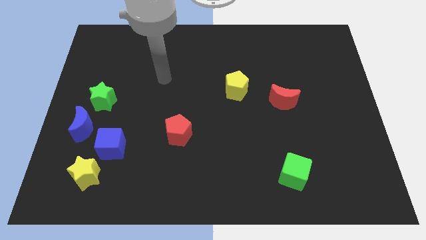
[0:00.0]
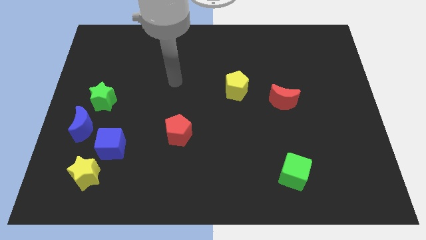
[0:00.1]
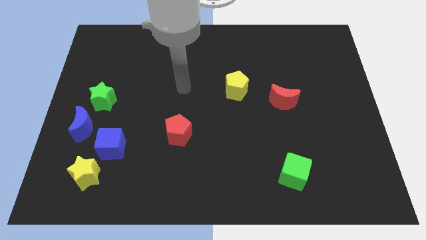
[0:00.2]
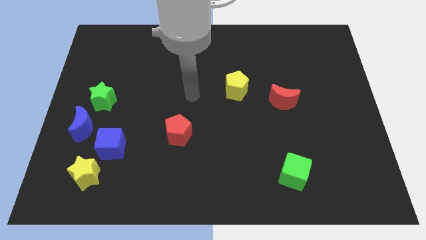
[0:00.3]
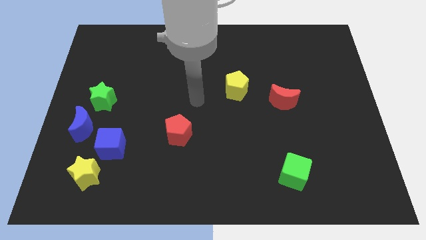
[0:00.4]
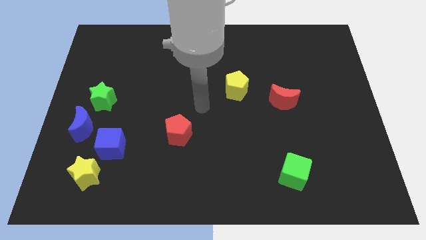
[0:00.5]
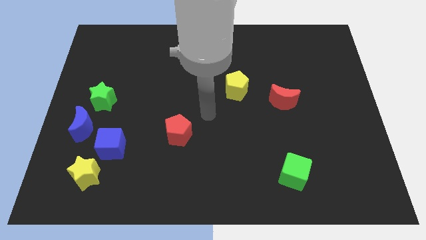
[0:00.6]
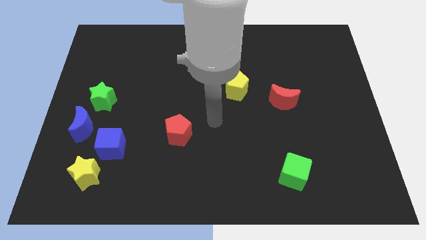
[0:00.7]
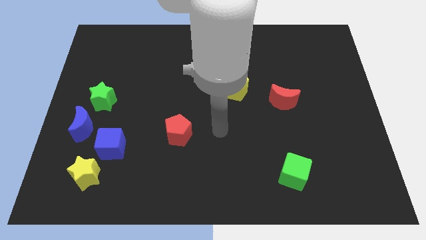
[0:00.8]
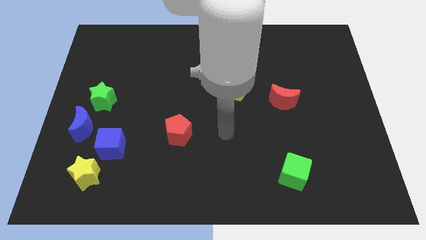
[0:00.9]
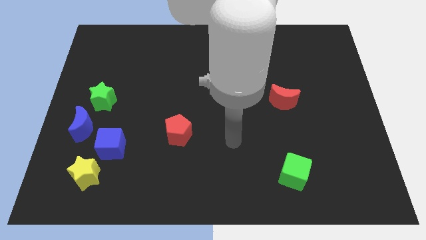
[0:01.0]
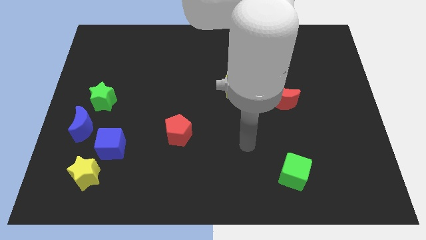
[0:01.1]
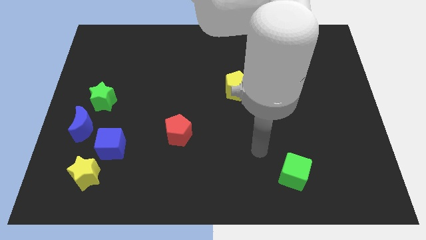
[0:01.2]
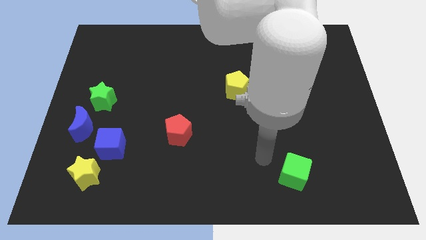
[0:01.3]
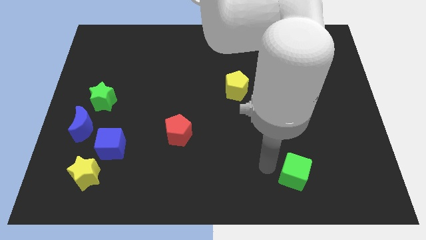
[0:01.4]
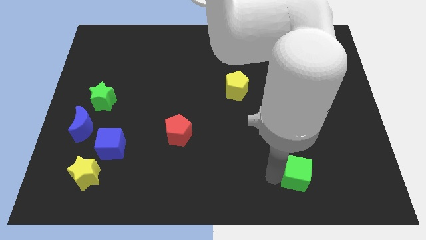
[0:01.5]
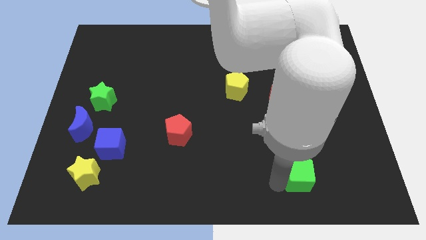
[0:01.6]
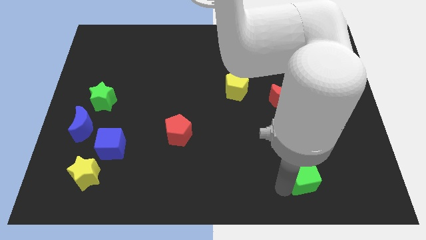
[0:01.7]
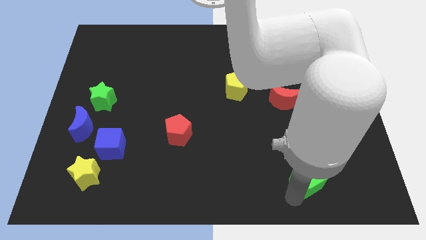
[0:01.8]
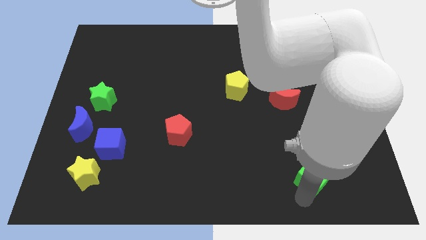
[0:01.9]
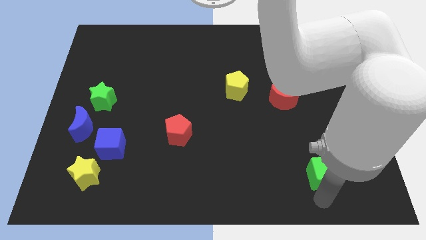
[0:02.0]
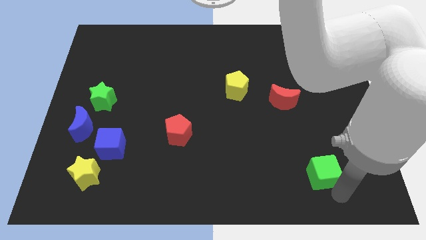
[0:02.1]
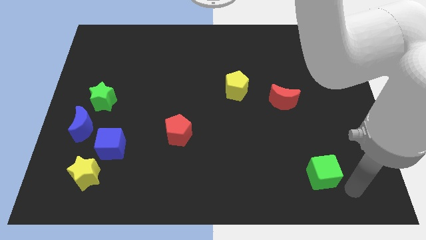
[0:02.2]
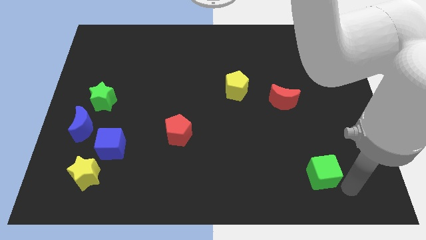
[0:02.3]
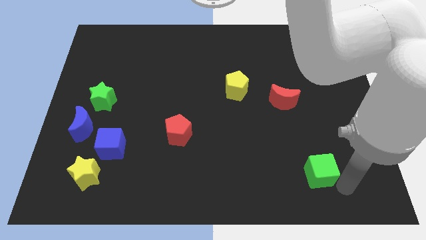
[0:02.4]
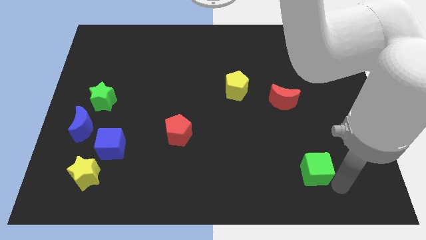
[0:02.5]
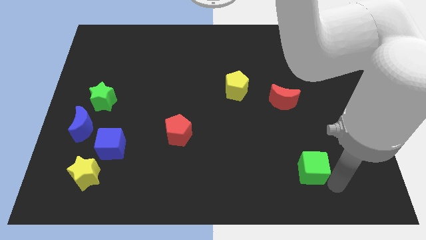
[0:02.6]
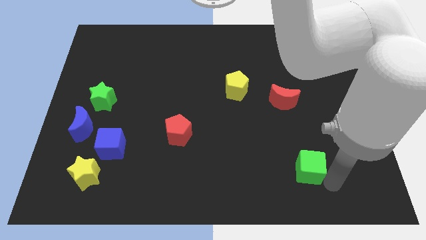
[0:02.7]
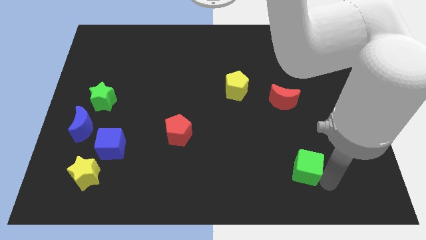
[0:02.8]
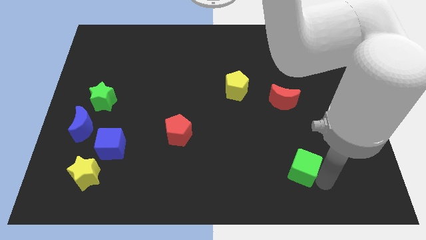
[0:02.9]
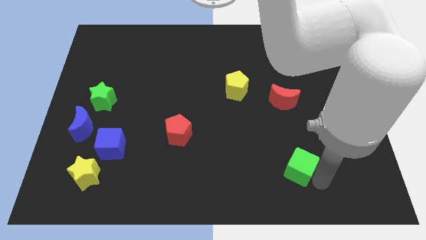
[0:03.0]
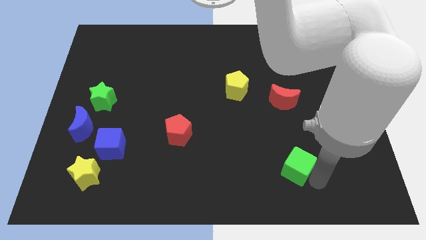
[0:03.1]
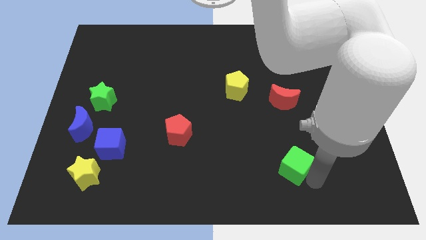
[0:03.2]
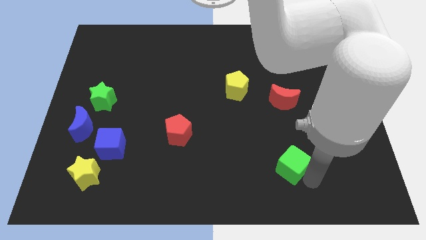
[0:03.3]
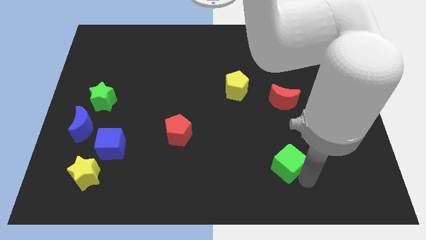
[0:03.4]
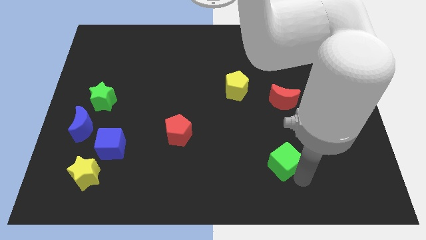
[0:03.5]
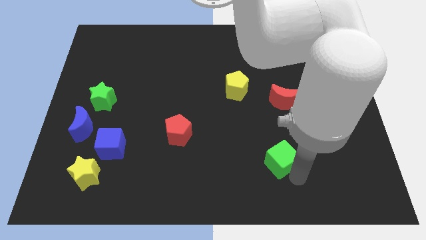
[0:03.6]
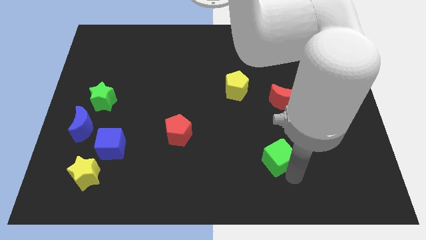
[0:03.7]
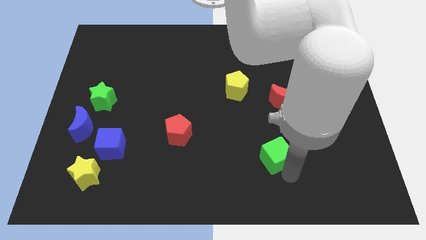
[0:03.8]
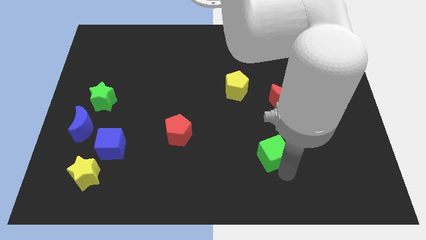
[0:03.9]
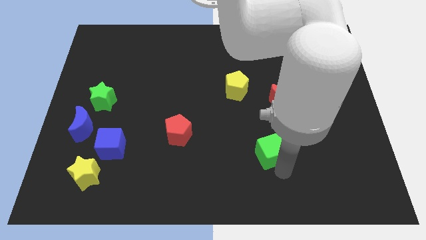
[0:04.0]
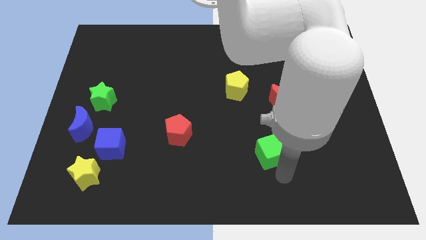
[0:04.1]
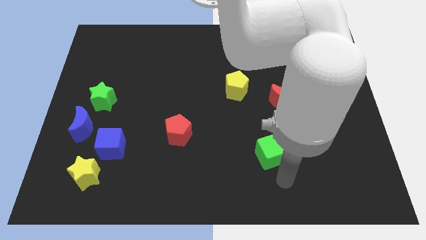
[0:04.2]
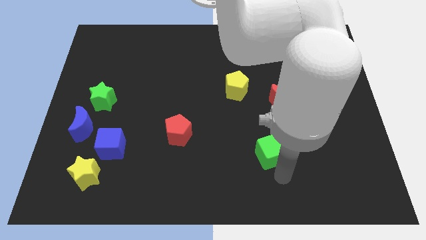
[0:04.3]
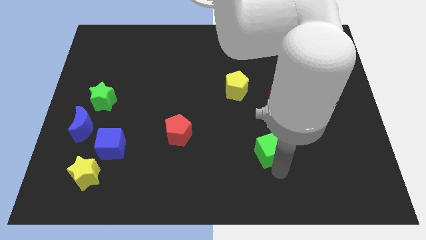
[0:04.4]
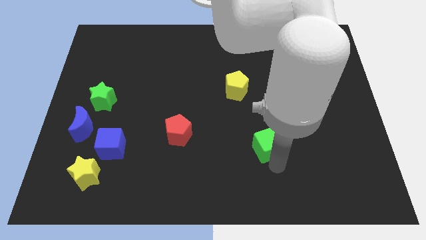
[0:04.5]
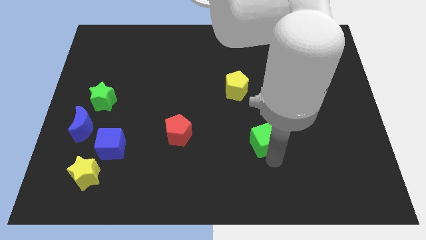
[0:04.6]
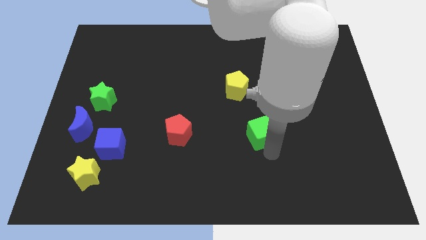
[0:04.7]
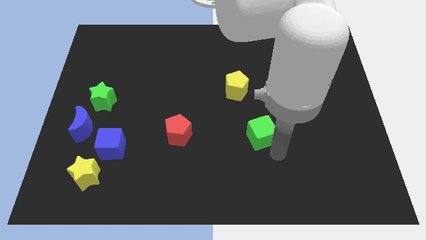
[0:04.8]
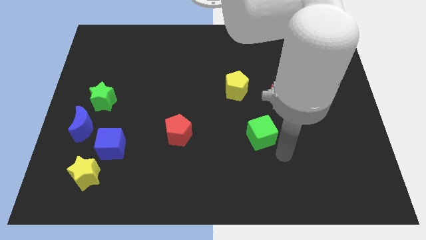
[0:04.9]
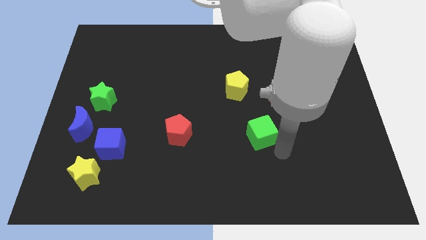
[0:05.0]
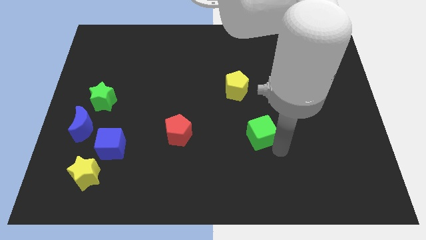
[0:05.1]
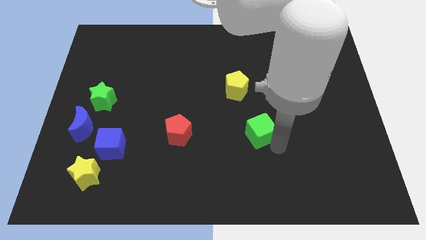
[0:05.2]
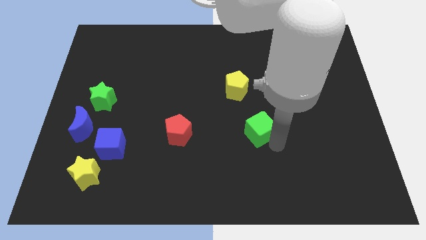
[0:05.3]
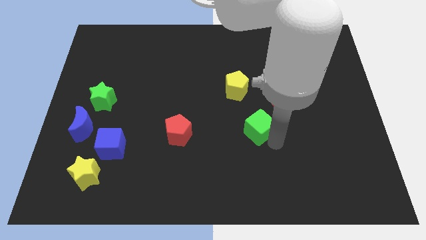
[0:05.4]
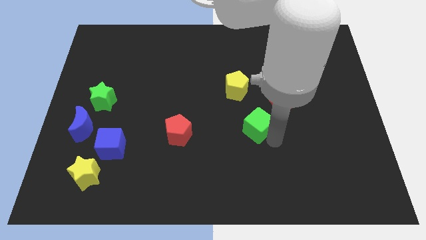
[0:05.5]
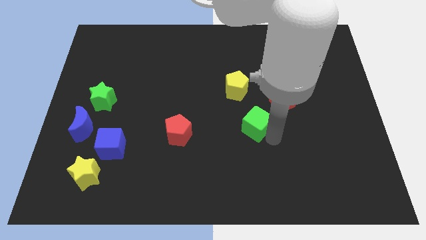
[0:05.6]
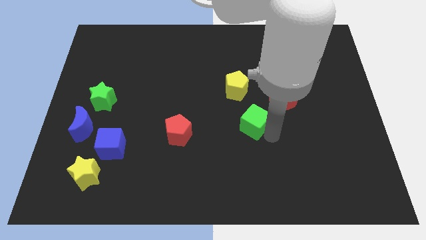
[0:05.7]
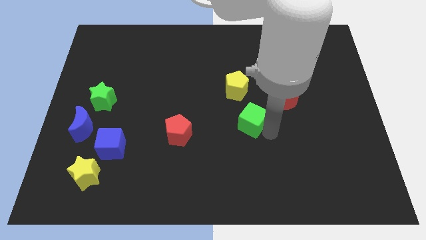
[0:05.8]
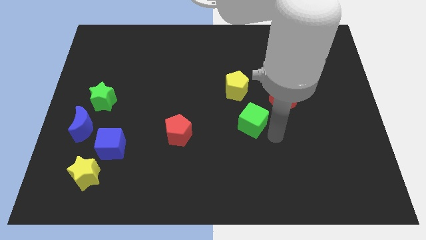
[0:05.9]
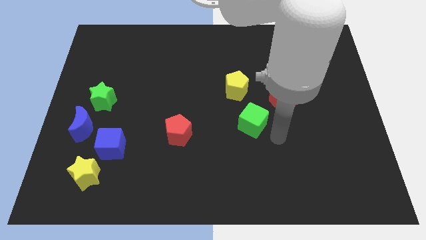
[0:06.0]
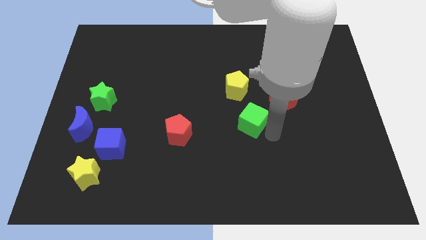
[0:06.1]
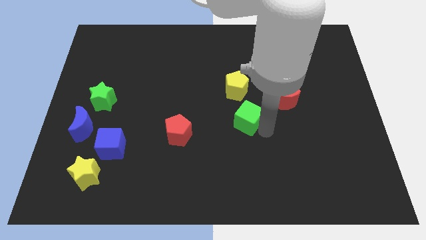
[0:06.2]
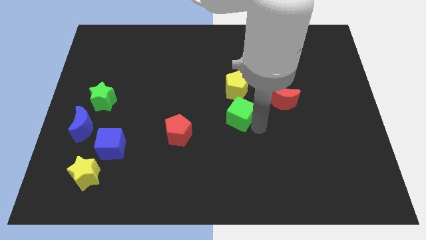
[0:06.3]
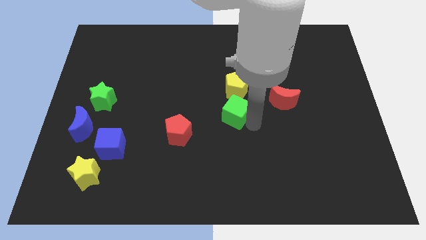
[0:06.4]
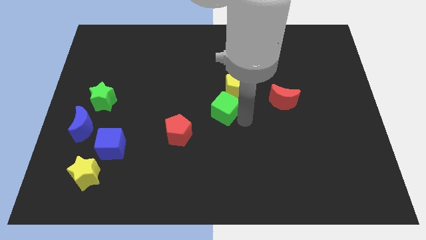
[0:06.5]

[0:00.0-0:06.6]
push the green cube upwards and left

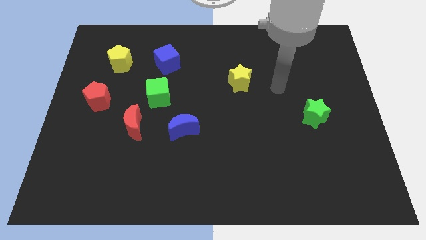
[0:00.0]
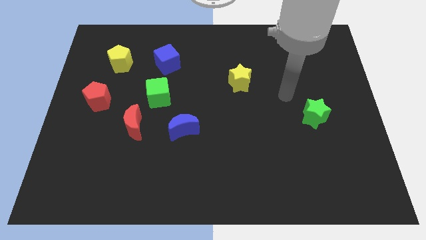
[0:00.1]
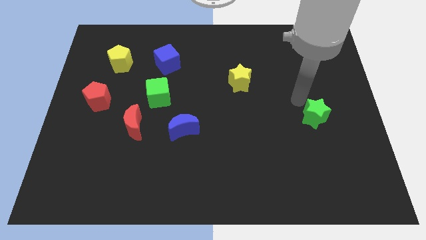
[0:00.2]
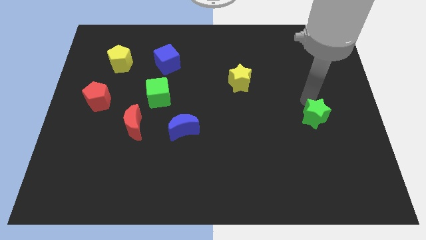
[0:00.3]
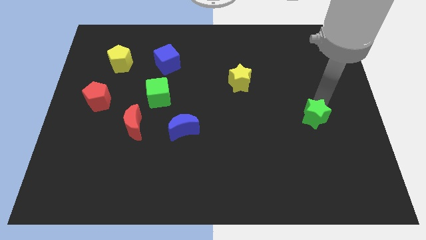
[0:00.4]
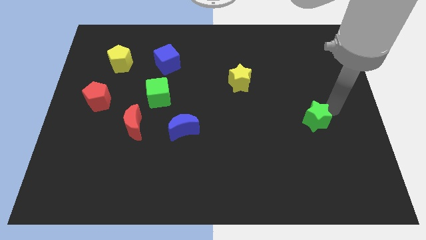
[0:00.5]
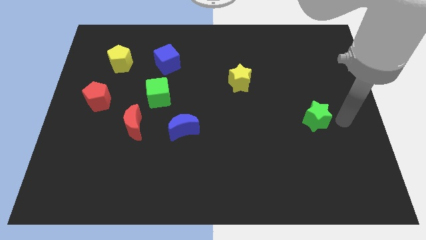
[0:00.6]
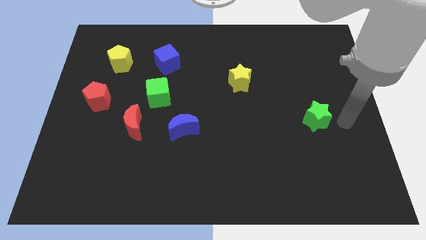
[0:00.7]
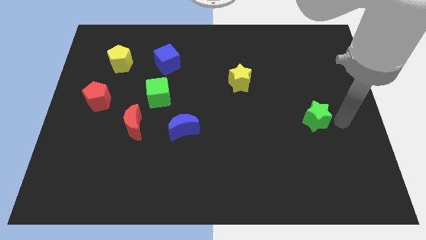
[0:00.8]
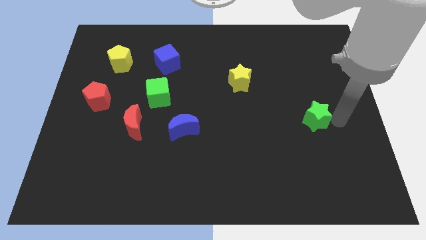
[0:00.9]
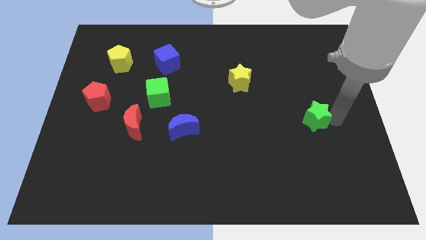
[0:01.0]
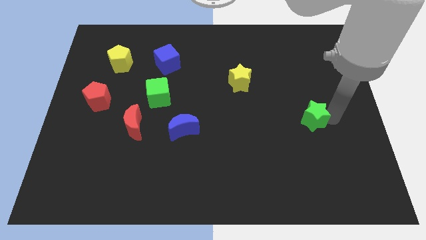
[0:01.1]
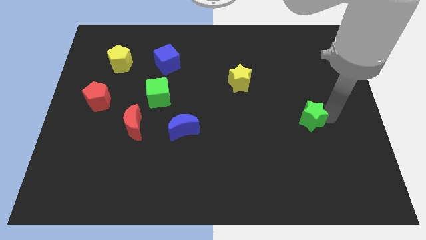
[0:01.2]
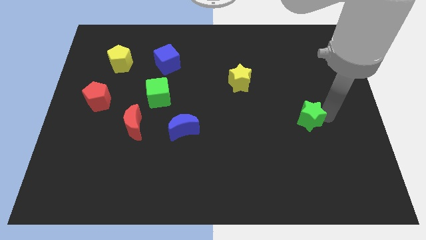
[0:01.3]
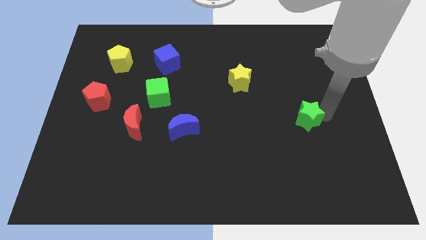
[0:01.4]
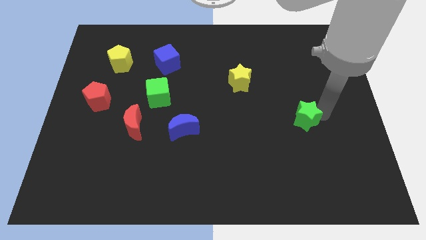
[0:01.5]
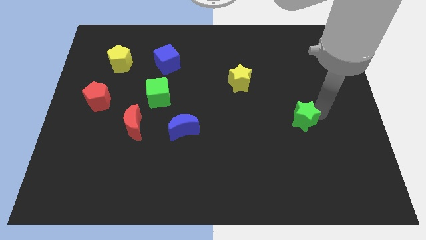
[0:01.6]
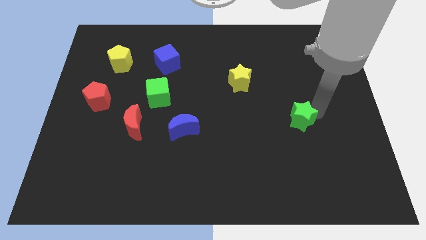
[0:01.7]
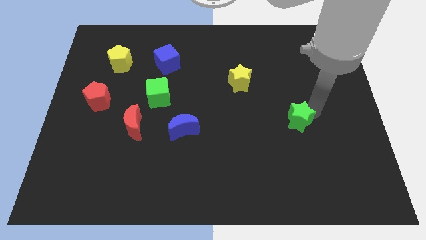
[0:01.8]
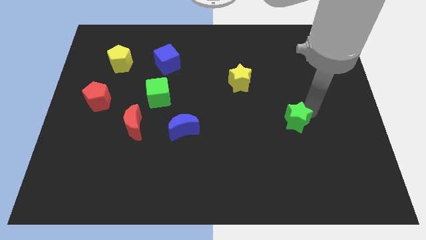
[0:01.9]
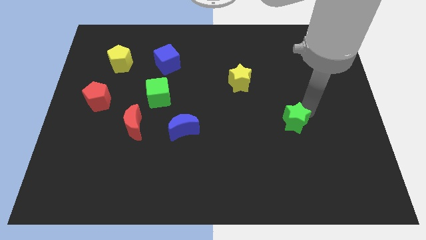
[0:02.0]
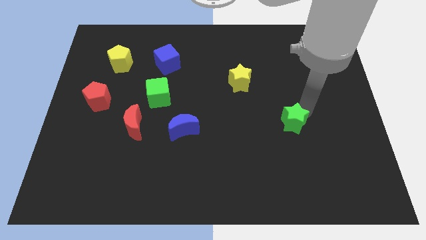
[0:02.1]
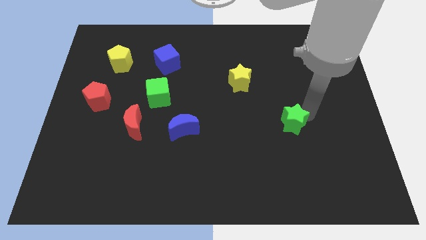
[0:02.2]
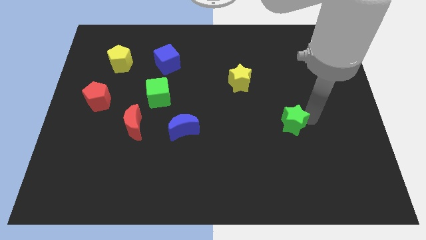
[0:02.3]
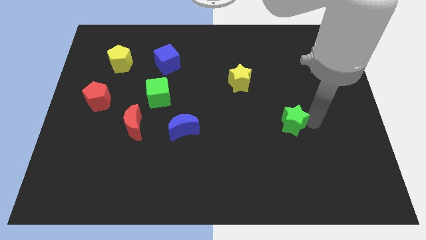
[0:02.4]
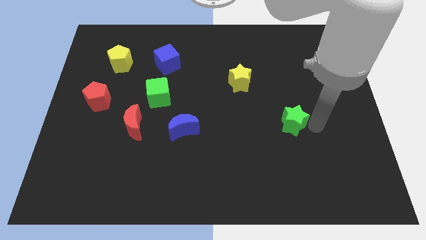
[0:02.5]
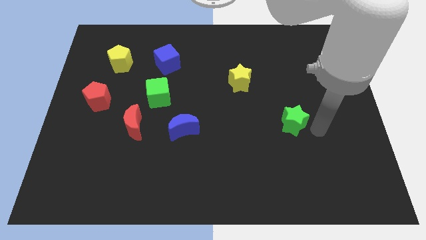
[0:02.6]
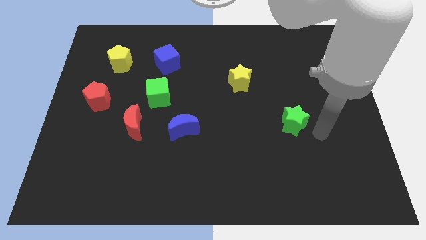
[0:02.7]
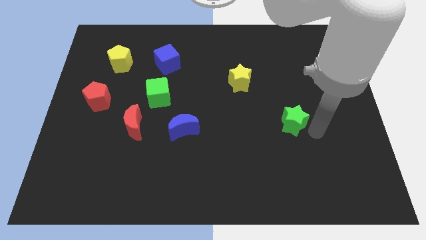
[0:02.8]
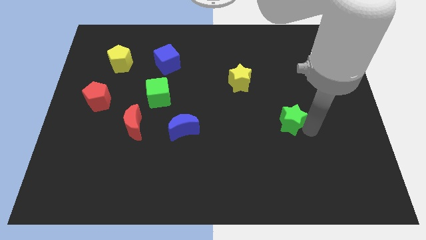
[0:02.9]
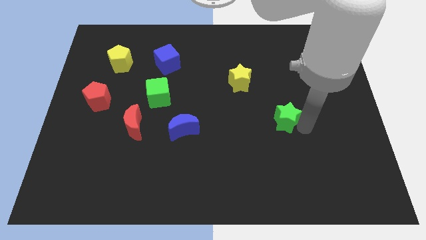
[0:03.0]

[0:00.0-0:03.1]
slide the green star left somewhat
